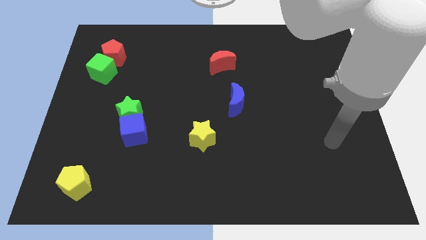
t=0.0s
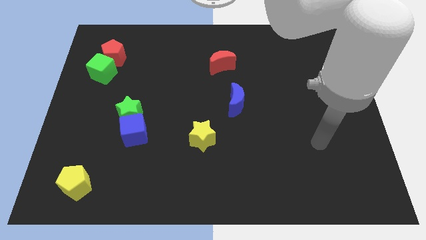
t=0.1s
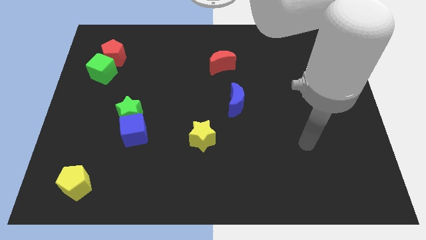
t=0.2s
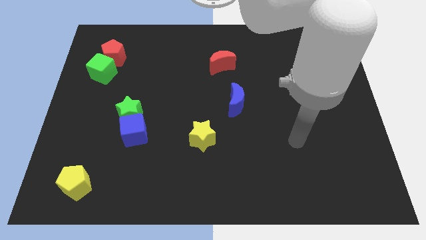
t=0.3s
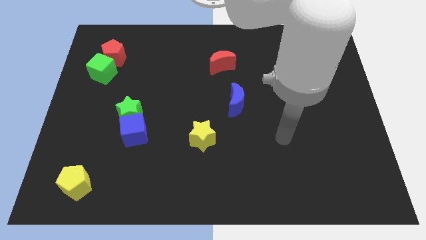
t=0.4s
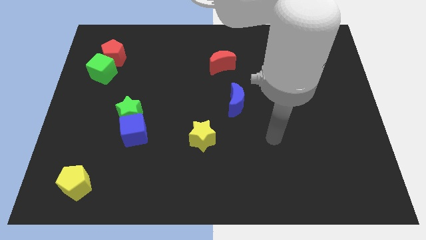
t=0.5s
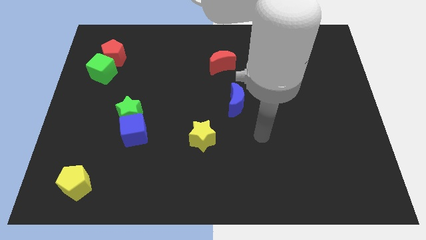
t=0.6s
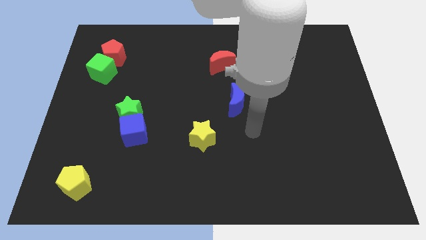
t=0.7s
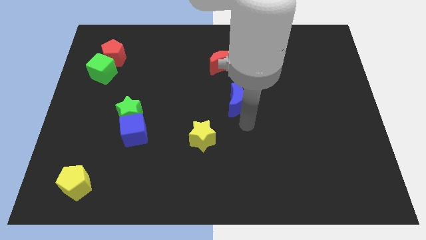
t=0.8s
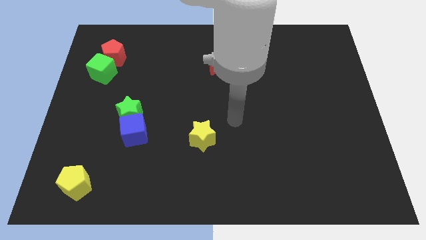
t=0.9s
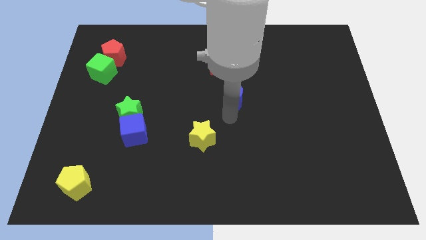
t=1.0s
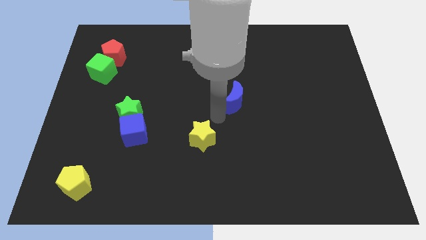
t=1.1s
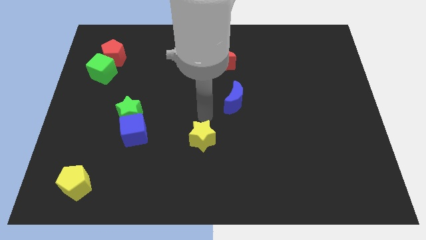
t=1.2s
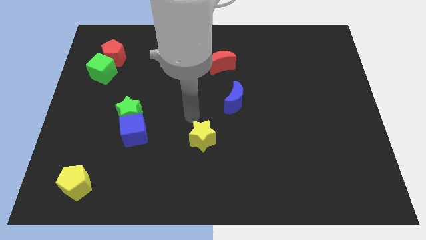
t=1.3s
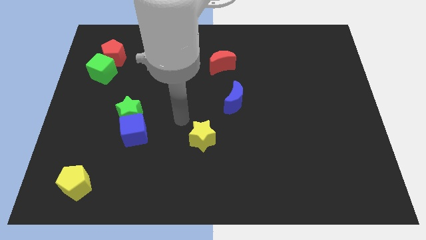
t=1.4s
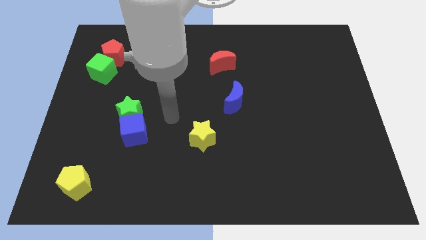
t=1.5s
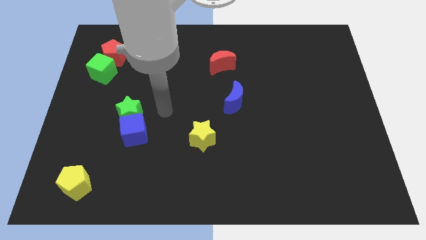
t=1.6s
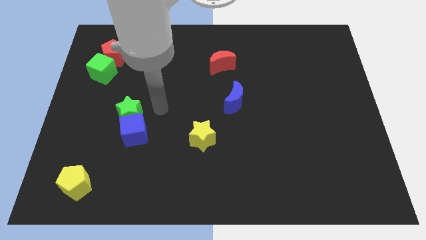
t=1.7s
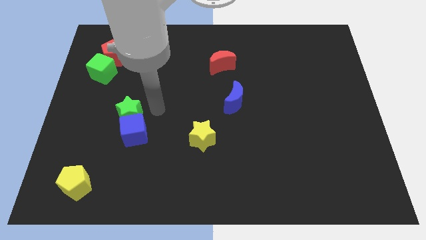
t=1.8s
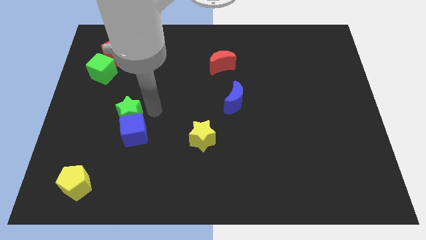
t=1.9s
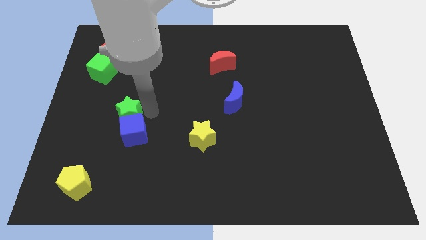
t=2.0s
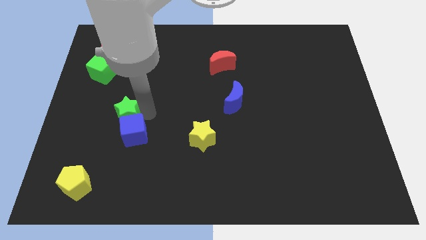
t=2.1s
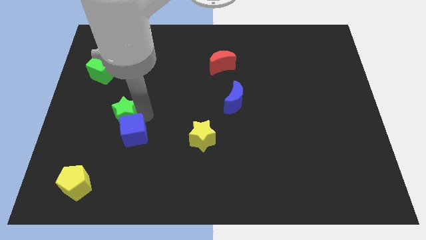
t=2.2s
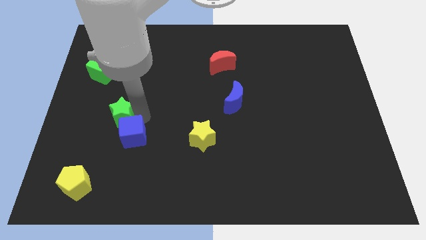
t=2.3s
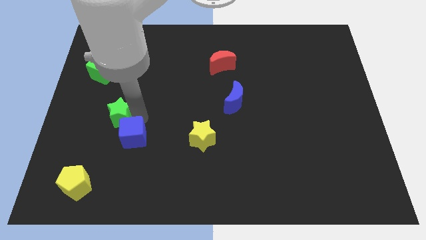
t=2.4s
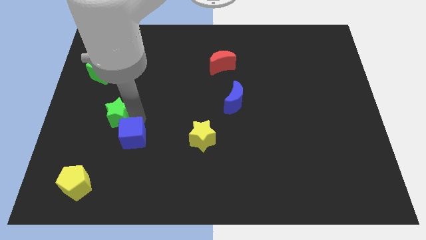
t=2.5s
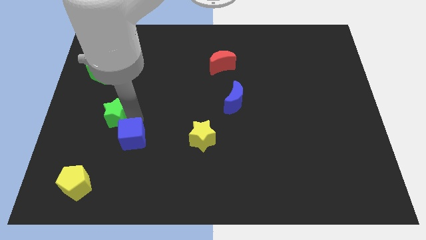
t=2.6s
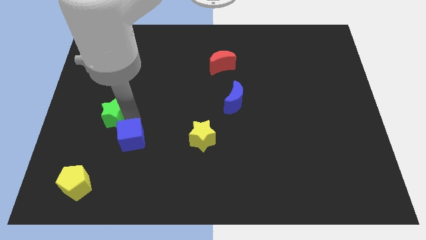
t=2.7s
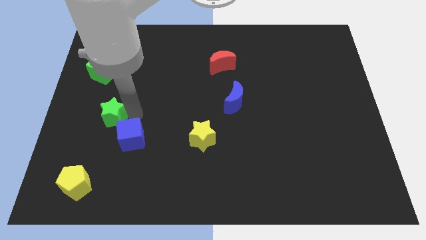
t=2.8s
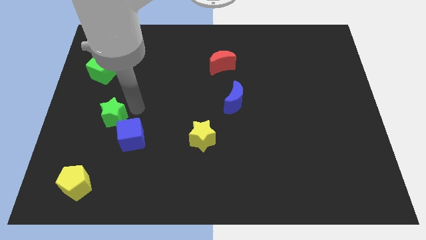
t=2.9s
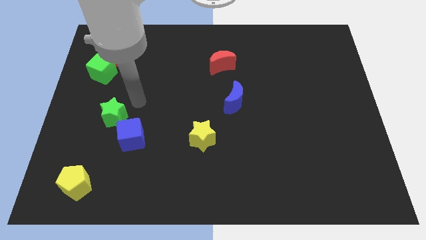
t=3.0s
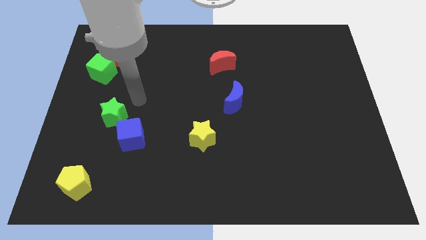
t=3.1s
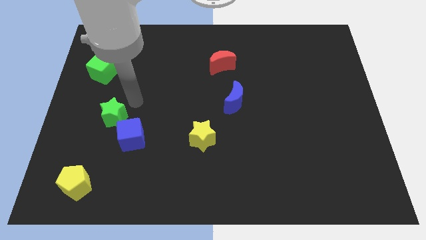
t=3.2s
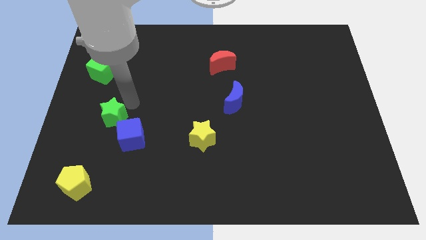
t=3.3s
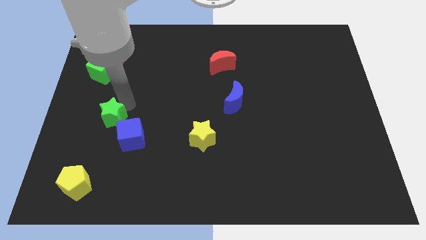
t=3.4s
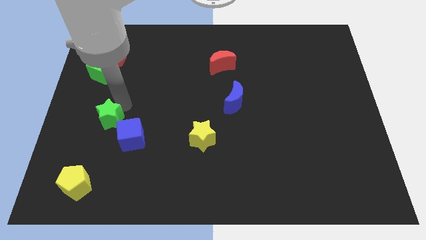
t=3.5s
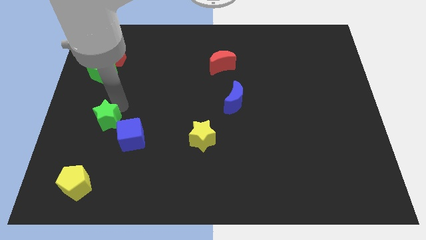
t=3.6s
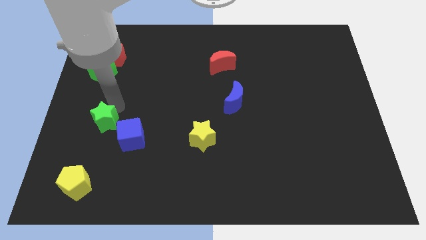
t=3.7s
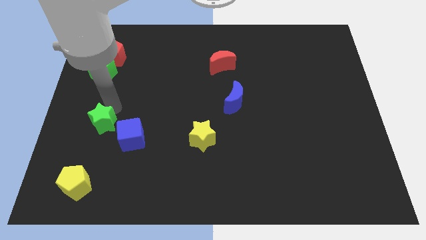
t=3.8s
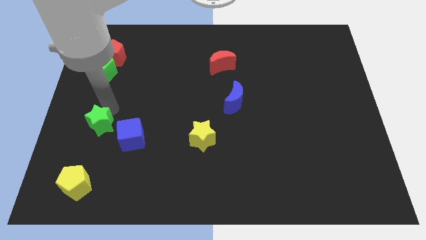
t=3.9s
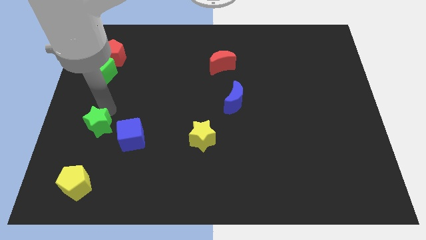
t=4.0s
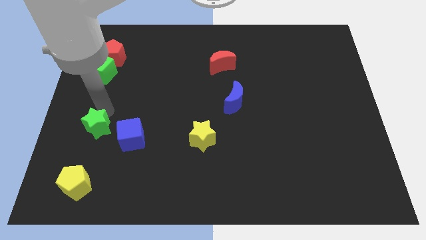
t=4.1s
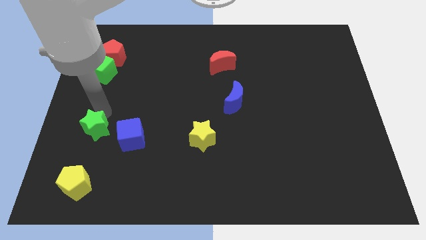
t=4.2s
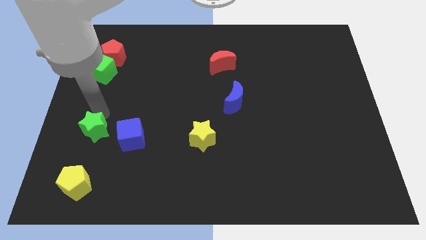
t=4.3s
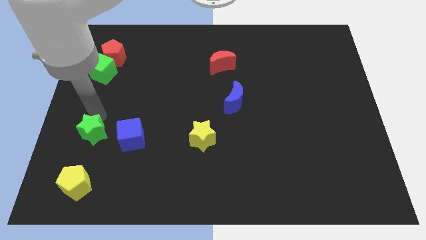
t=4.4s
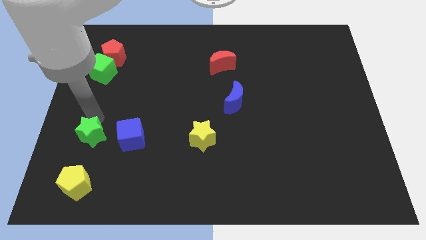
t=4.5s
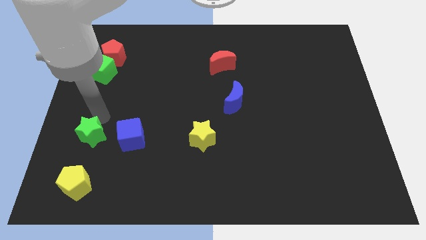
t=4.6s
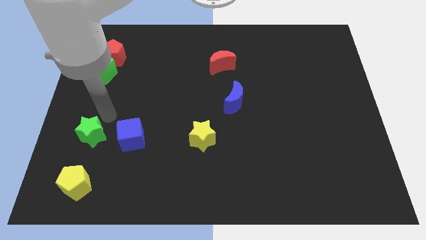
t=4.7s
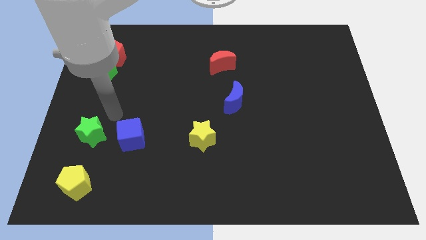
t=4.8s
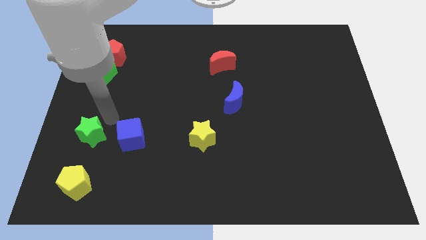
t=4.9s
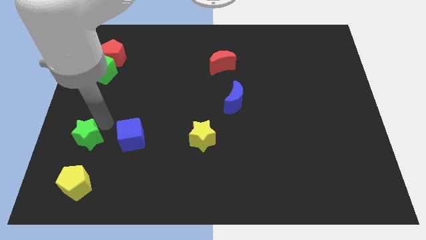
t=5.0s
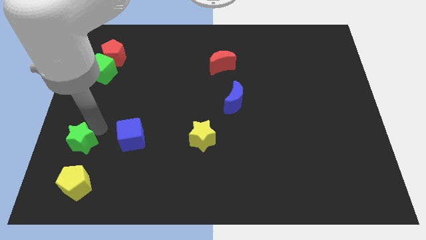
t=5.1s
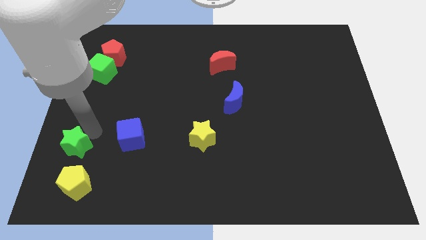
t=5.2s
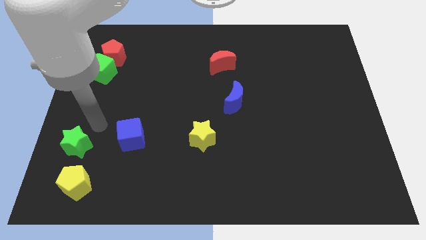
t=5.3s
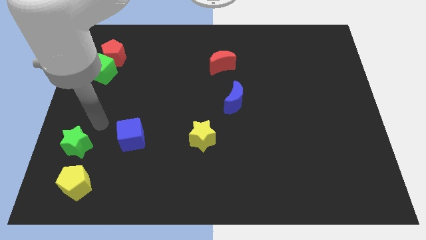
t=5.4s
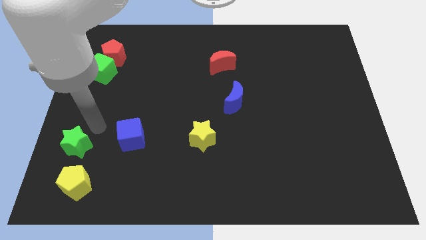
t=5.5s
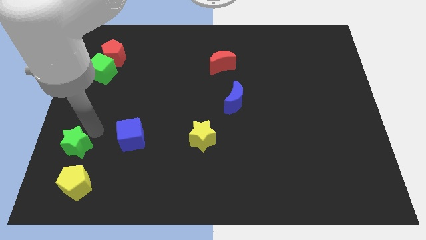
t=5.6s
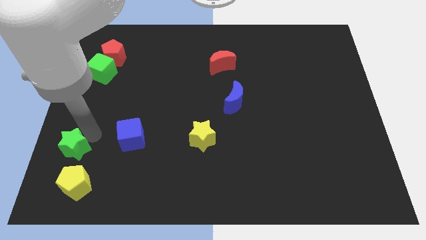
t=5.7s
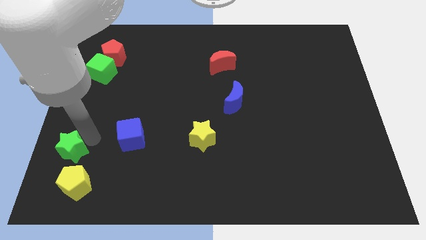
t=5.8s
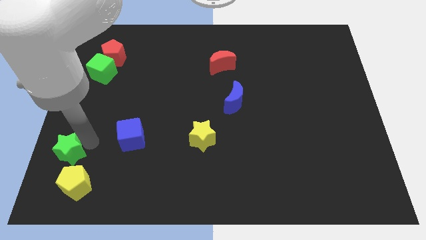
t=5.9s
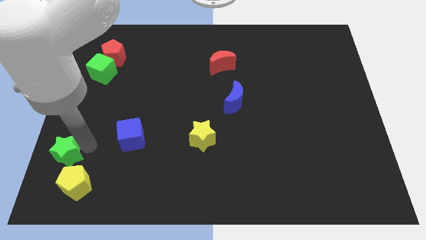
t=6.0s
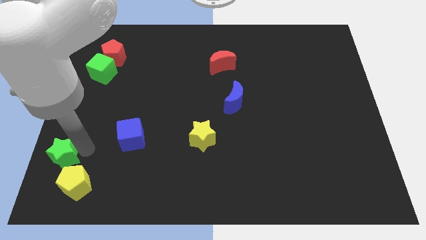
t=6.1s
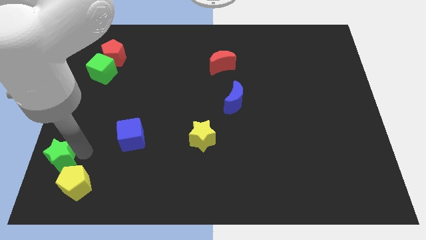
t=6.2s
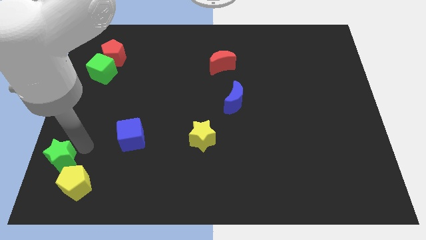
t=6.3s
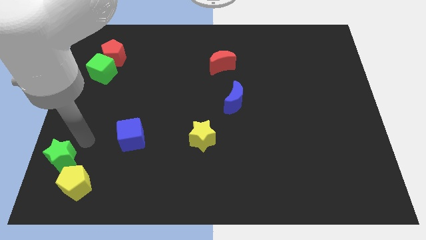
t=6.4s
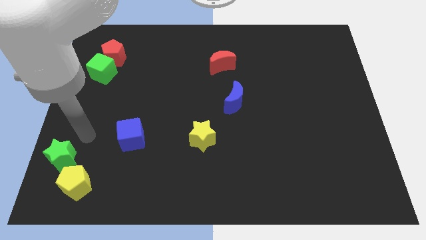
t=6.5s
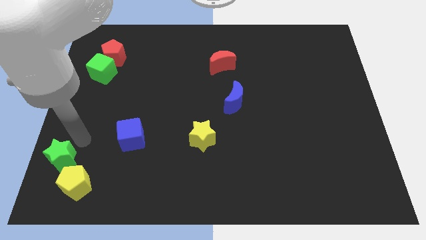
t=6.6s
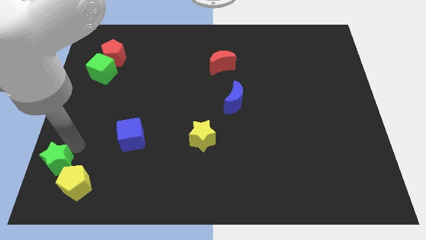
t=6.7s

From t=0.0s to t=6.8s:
slide the green star to the bottom left corner

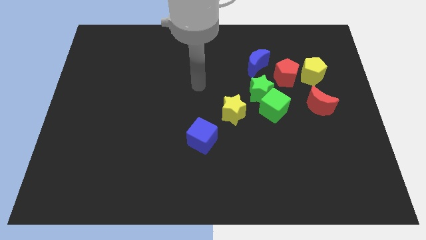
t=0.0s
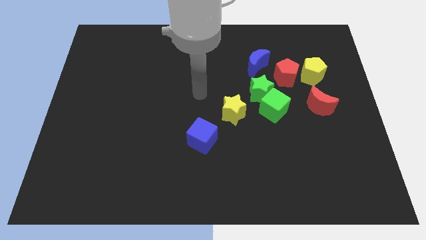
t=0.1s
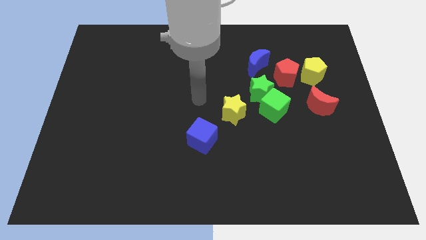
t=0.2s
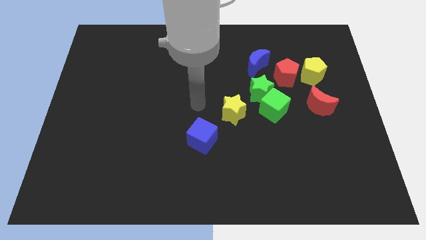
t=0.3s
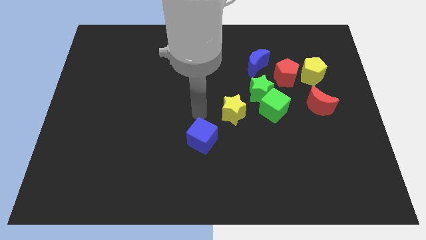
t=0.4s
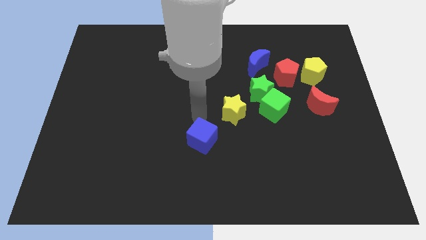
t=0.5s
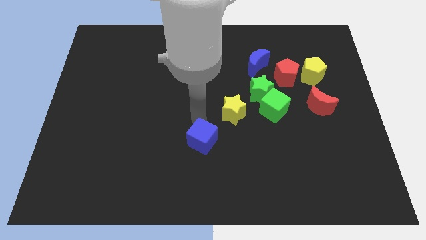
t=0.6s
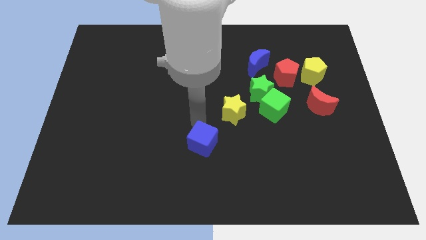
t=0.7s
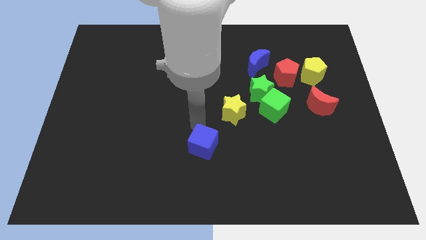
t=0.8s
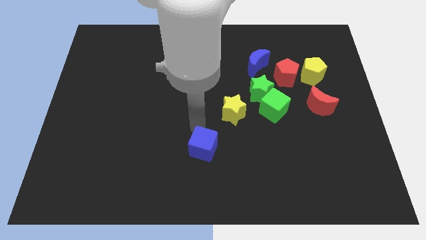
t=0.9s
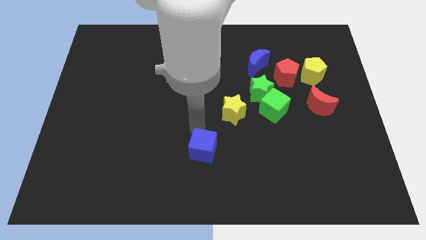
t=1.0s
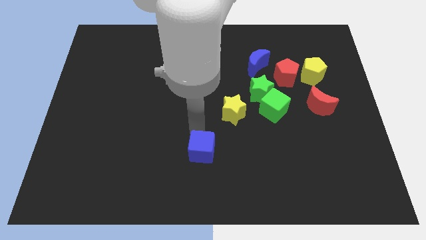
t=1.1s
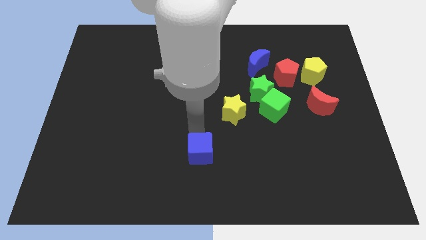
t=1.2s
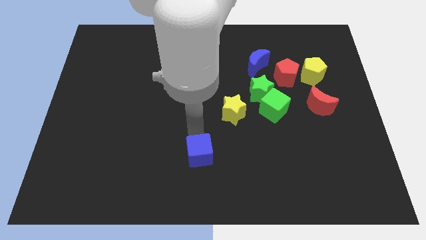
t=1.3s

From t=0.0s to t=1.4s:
slide the blue cube to the bottom side
